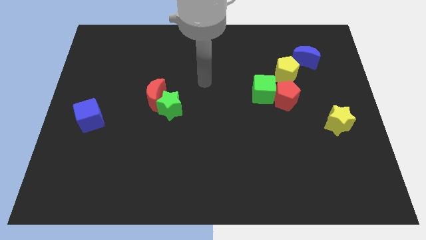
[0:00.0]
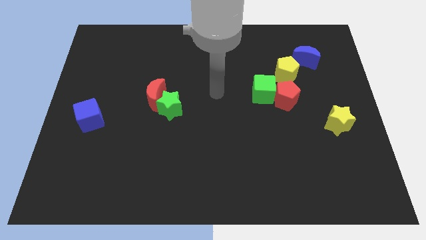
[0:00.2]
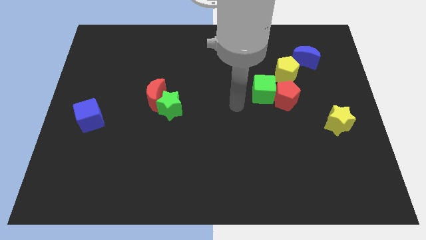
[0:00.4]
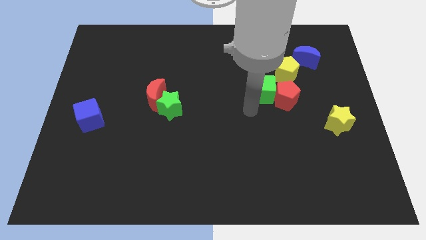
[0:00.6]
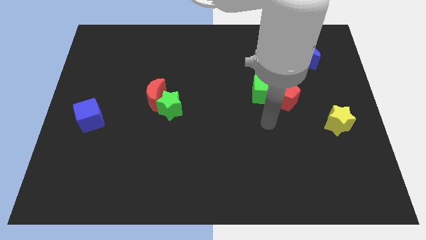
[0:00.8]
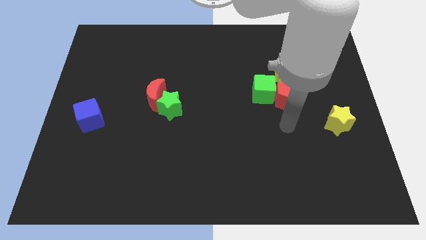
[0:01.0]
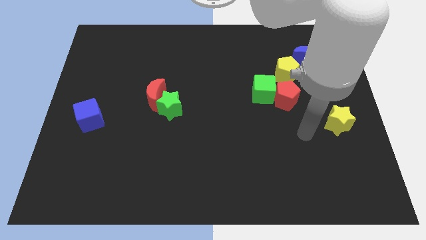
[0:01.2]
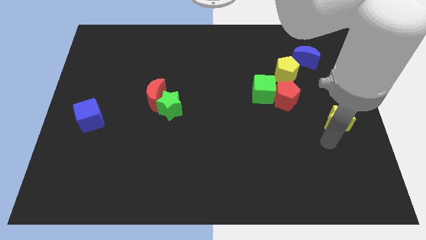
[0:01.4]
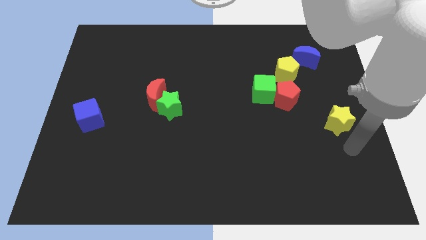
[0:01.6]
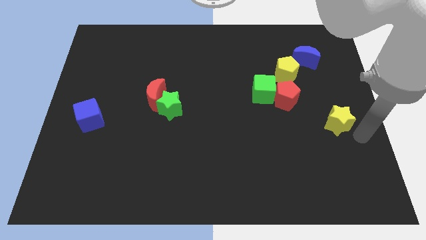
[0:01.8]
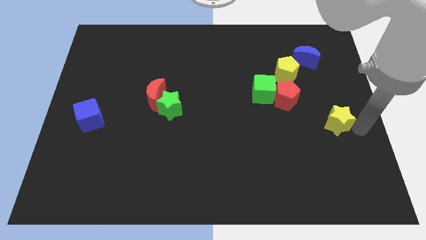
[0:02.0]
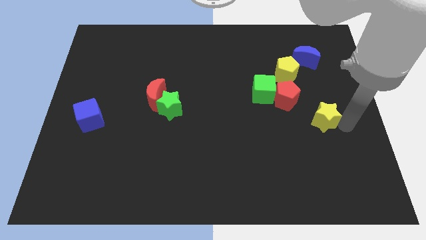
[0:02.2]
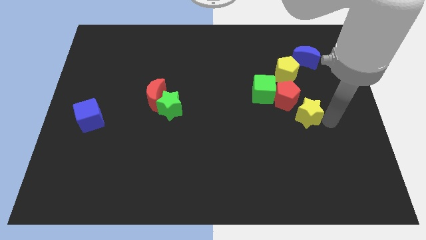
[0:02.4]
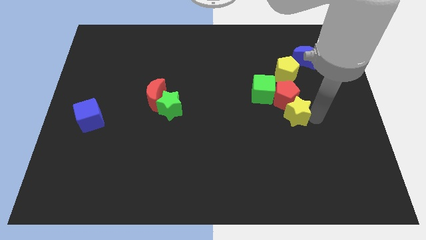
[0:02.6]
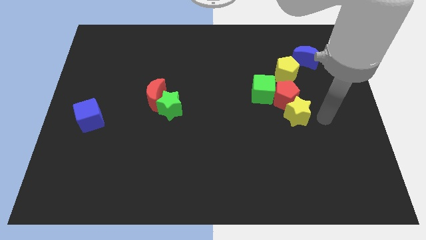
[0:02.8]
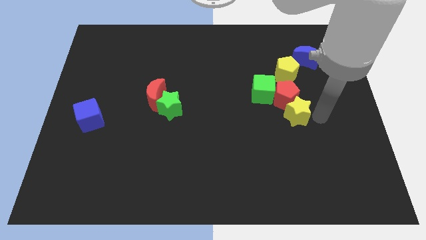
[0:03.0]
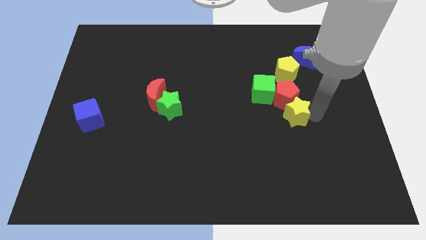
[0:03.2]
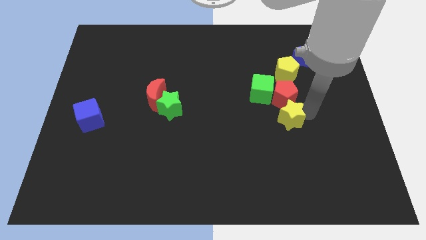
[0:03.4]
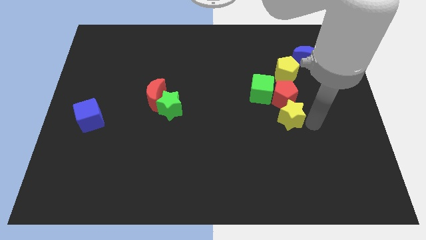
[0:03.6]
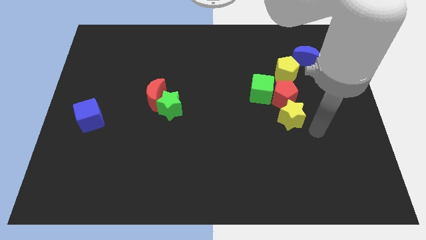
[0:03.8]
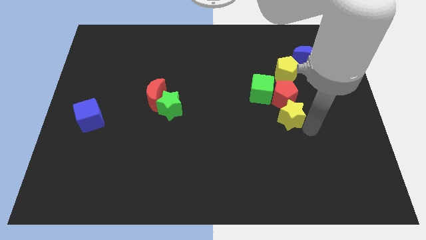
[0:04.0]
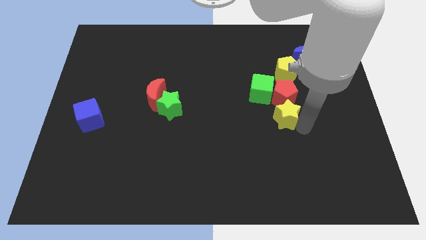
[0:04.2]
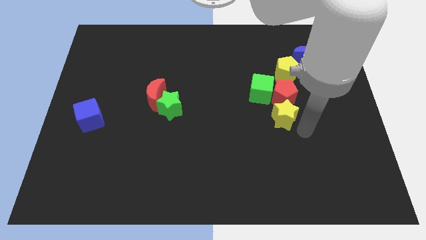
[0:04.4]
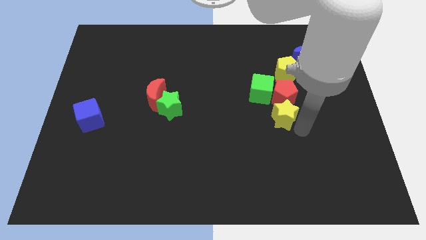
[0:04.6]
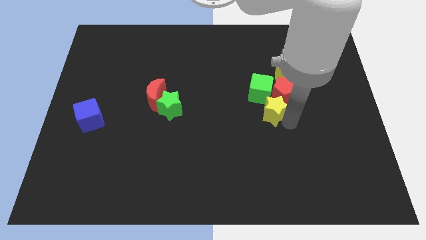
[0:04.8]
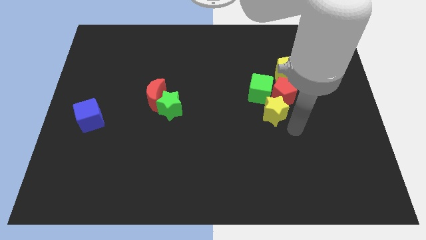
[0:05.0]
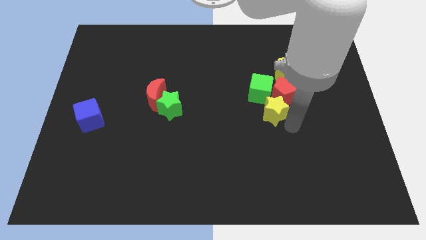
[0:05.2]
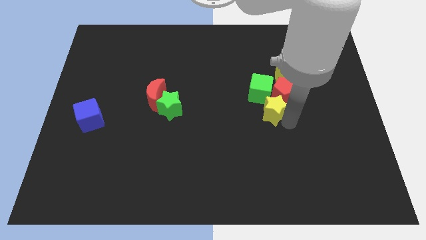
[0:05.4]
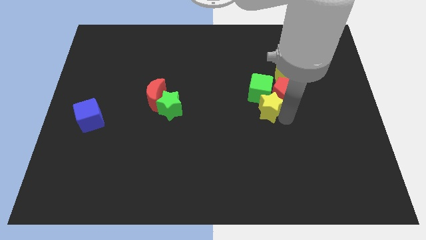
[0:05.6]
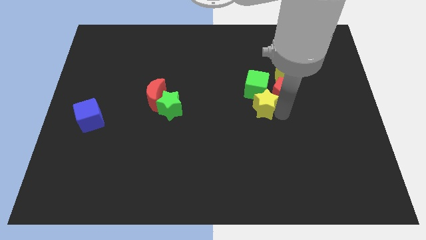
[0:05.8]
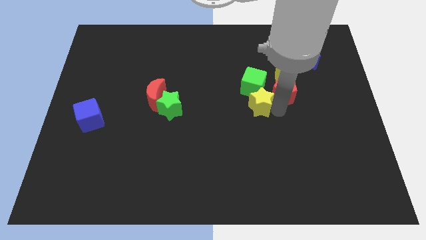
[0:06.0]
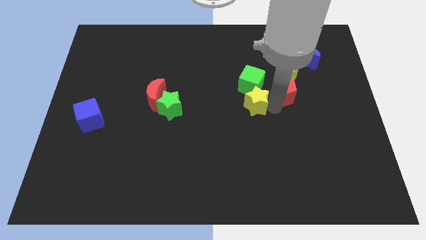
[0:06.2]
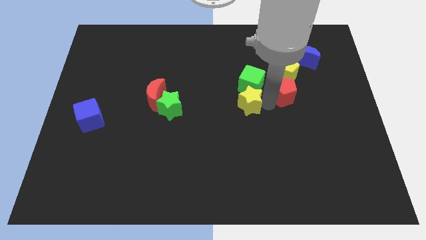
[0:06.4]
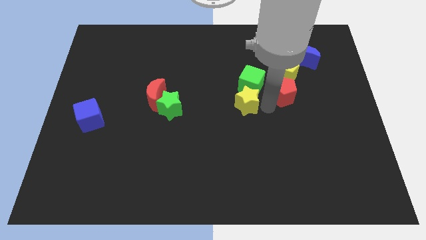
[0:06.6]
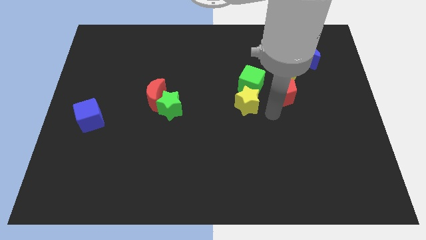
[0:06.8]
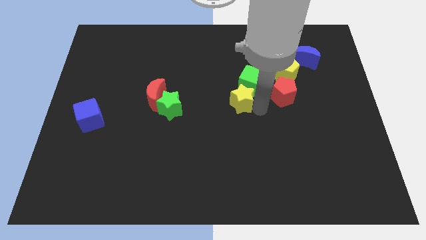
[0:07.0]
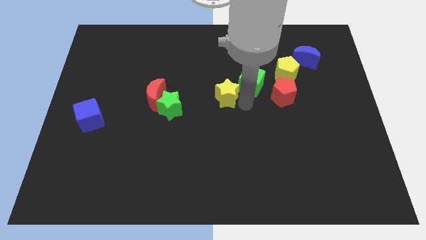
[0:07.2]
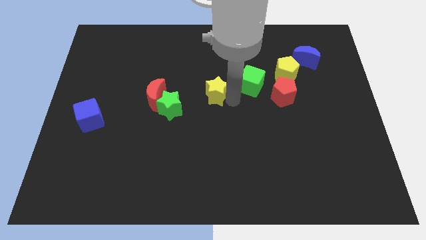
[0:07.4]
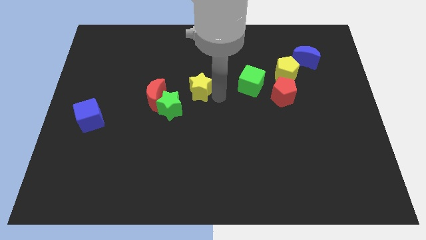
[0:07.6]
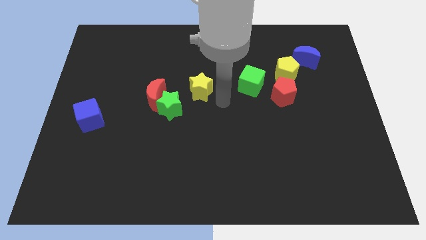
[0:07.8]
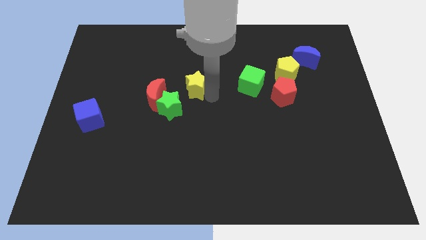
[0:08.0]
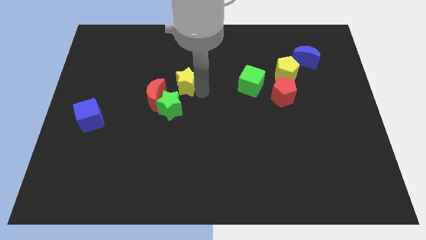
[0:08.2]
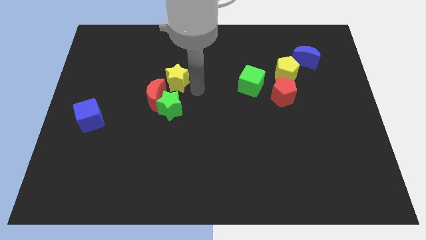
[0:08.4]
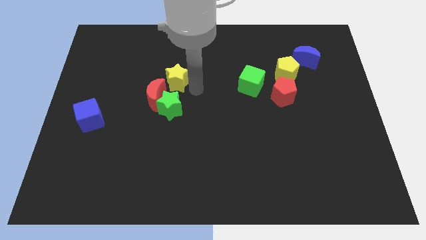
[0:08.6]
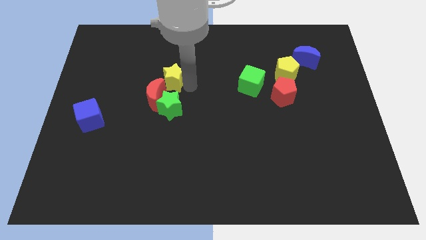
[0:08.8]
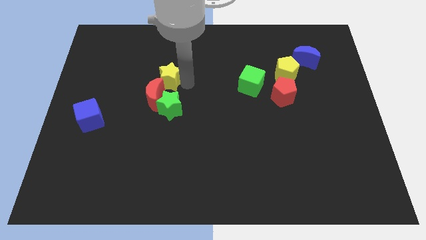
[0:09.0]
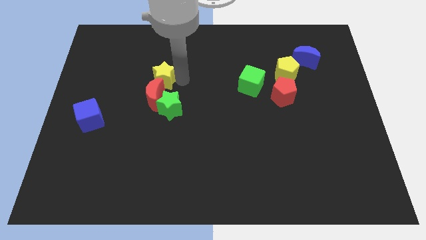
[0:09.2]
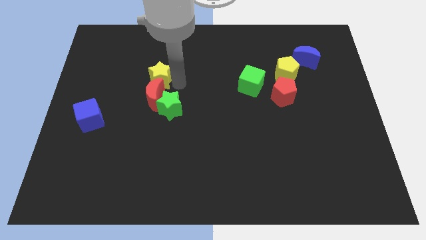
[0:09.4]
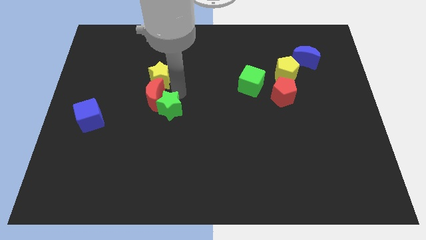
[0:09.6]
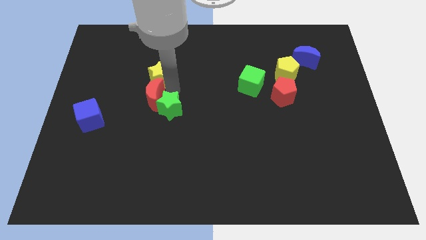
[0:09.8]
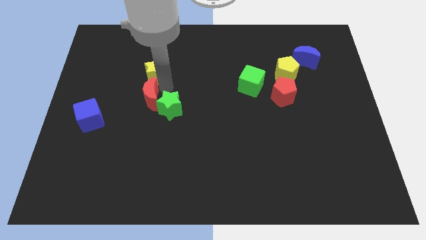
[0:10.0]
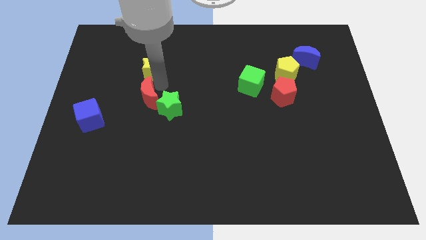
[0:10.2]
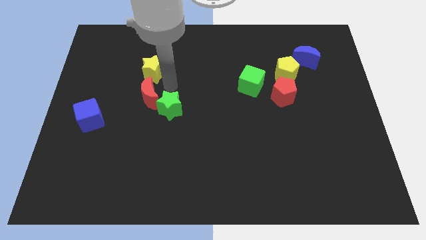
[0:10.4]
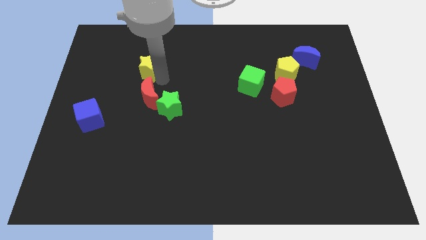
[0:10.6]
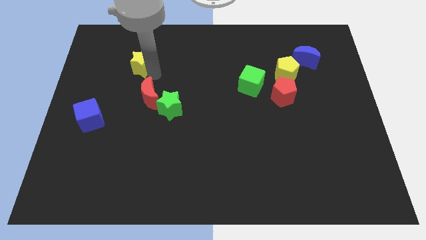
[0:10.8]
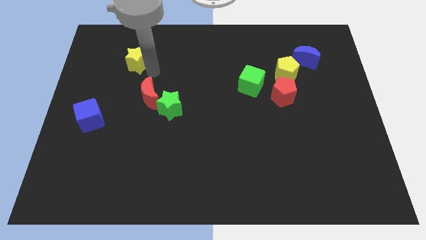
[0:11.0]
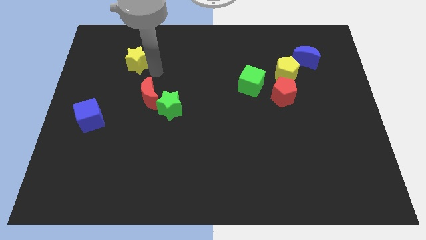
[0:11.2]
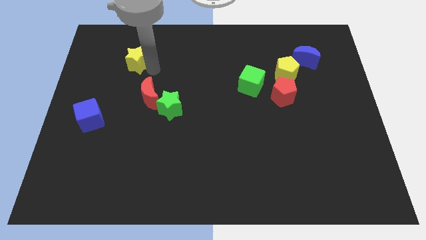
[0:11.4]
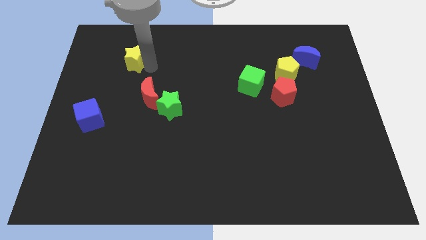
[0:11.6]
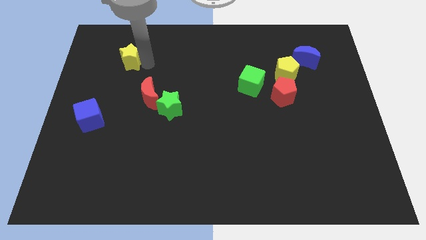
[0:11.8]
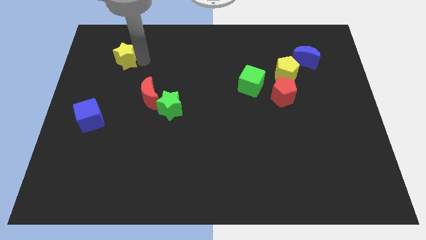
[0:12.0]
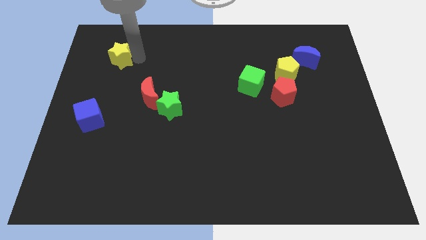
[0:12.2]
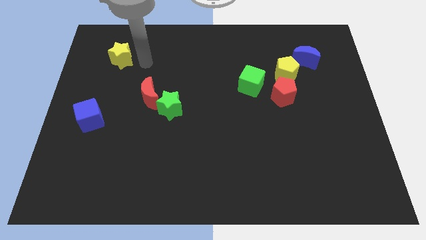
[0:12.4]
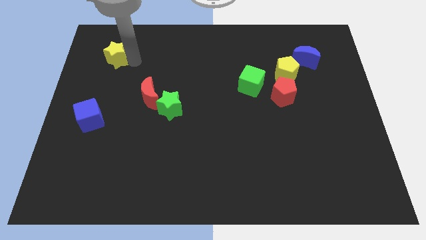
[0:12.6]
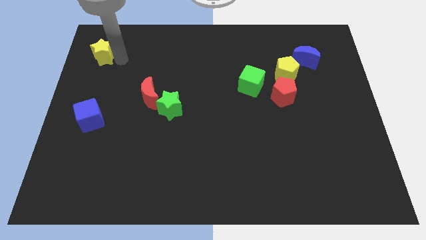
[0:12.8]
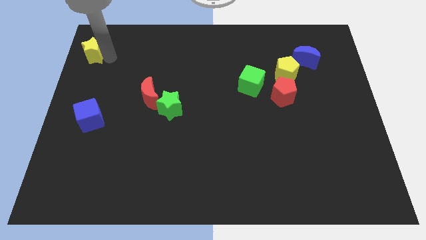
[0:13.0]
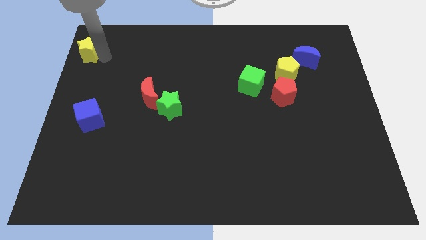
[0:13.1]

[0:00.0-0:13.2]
move the yellow star to the top left corner
